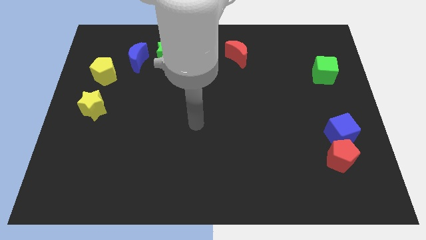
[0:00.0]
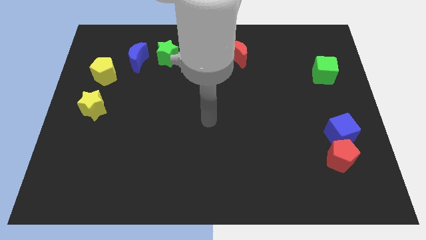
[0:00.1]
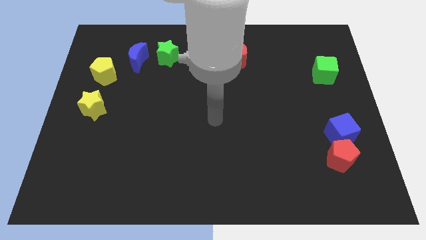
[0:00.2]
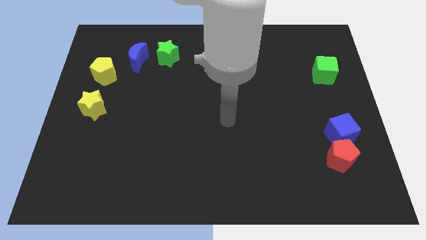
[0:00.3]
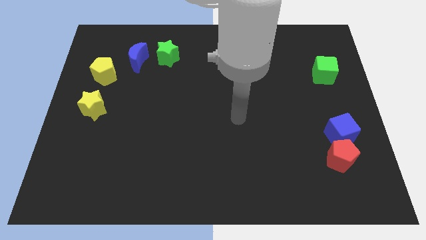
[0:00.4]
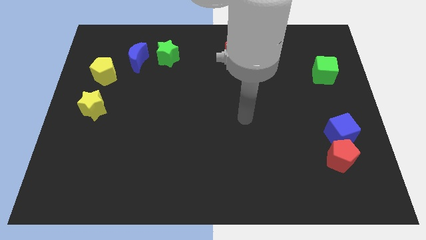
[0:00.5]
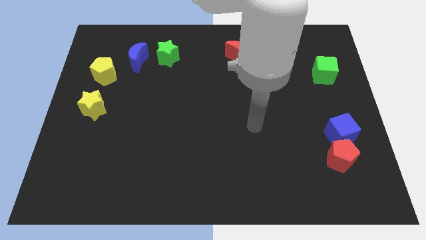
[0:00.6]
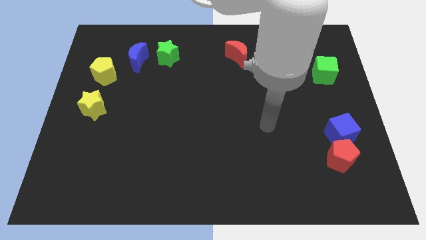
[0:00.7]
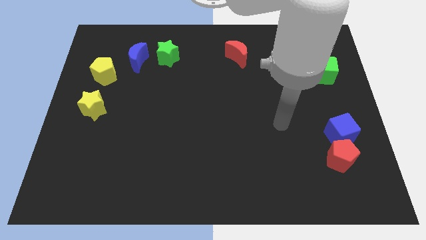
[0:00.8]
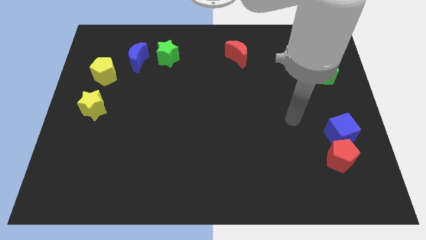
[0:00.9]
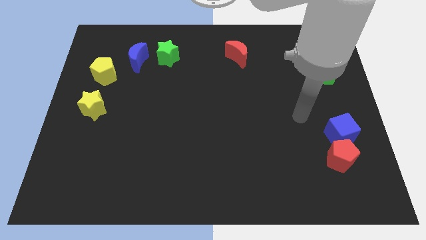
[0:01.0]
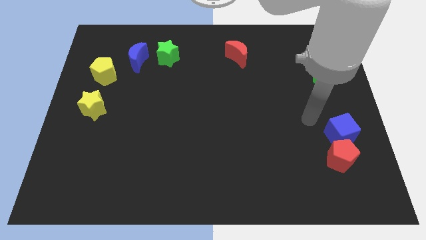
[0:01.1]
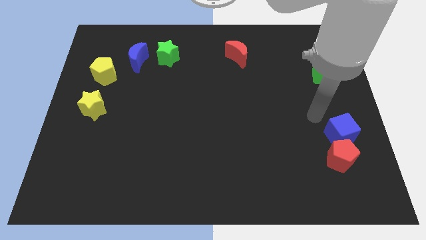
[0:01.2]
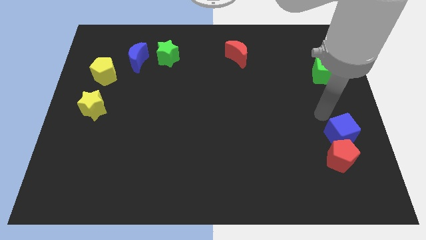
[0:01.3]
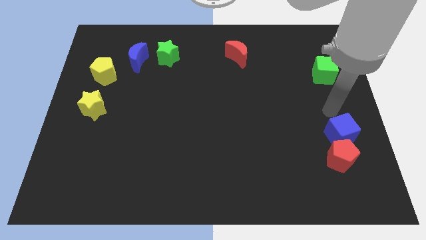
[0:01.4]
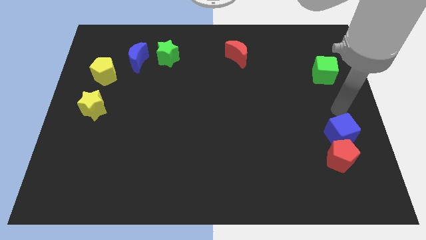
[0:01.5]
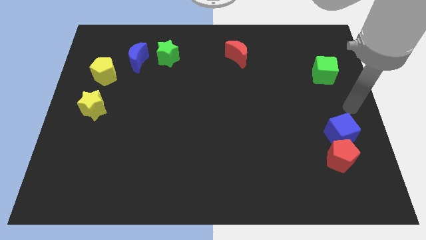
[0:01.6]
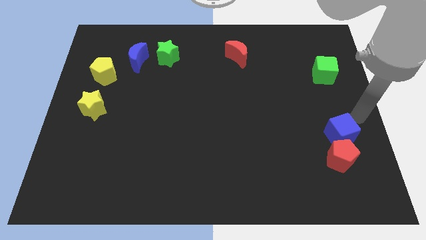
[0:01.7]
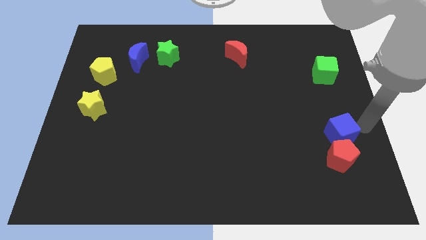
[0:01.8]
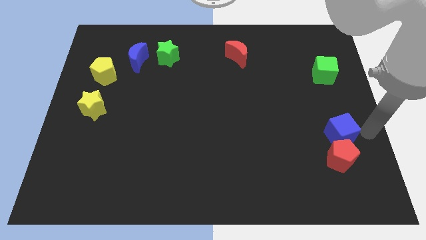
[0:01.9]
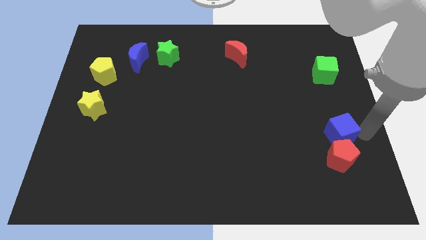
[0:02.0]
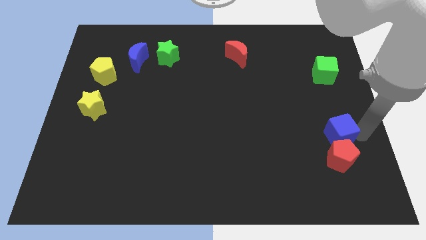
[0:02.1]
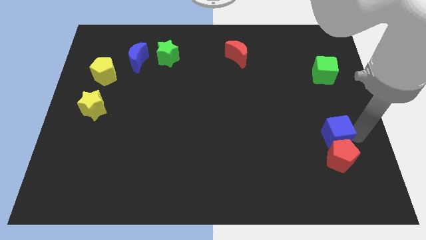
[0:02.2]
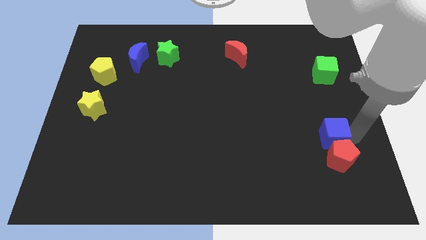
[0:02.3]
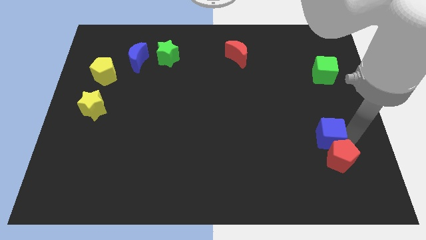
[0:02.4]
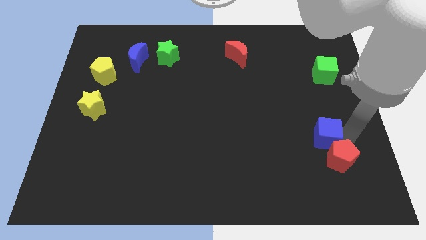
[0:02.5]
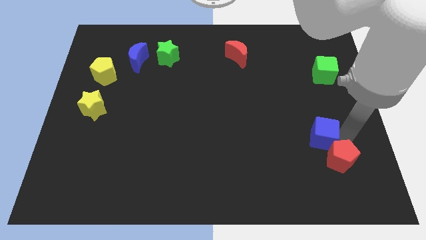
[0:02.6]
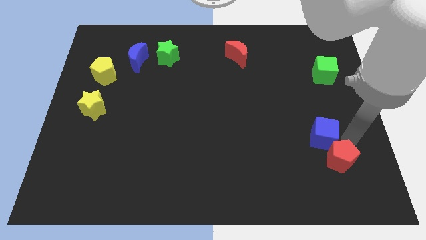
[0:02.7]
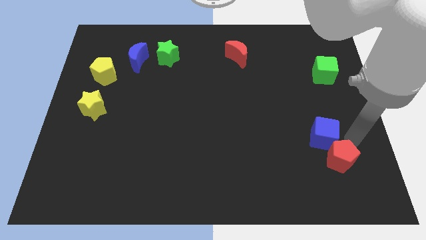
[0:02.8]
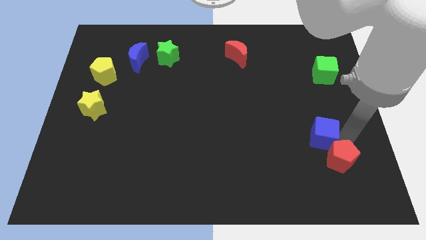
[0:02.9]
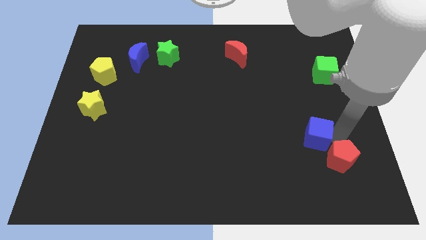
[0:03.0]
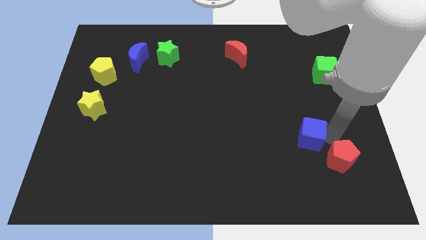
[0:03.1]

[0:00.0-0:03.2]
push the blue cube slightly left

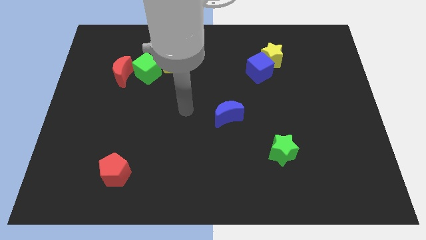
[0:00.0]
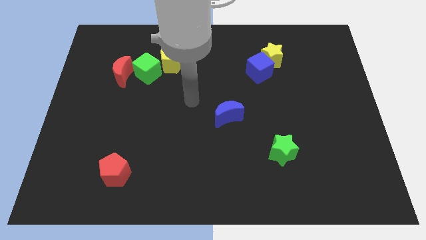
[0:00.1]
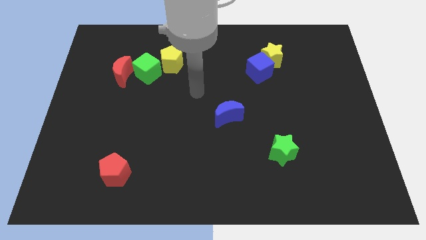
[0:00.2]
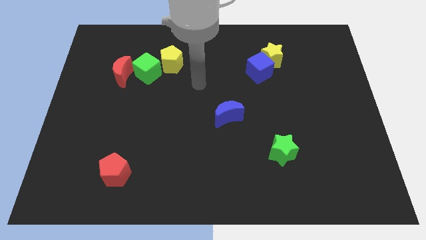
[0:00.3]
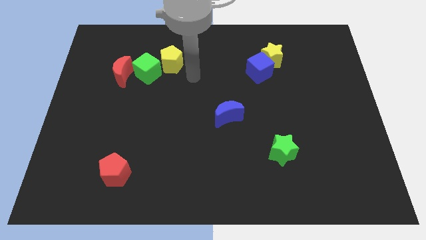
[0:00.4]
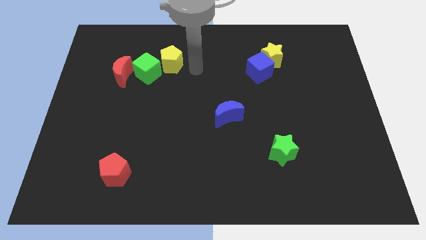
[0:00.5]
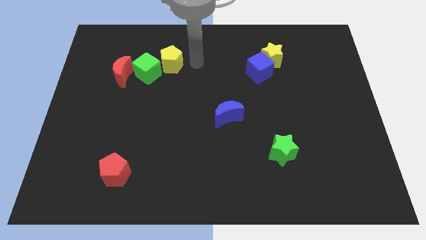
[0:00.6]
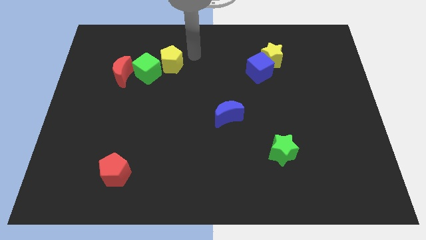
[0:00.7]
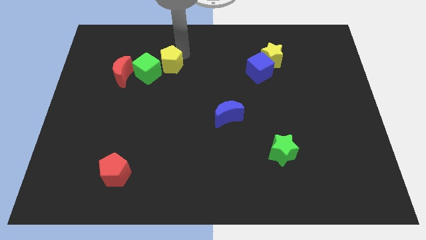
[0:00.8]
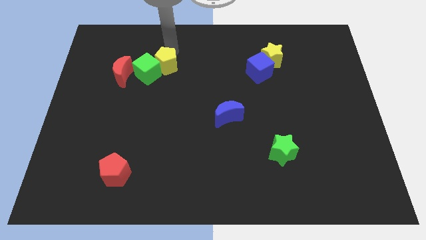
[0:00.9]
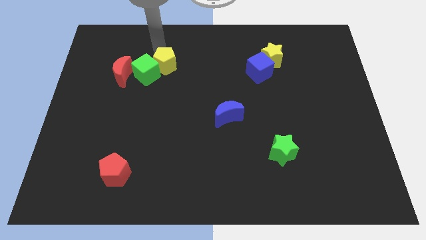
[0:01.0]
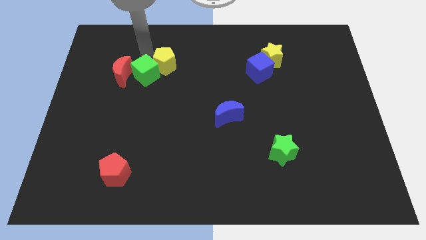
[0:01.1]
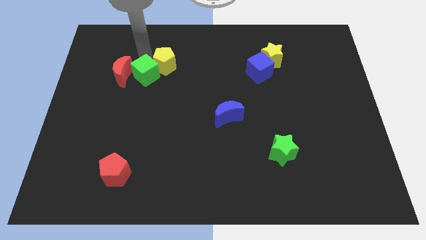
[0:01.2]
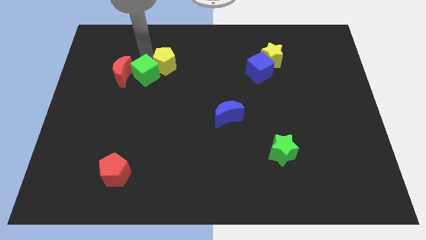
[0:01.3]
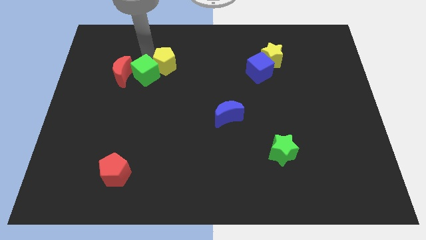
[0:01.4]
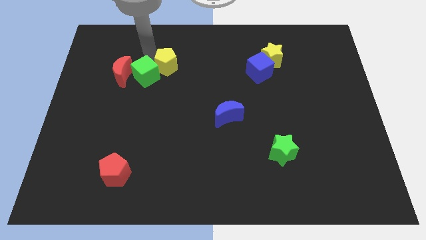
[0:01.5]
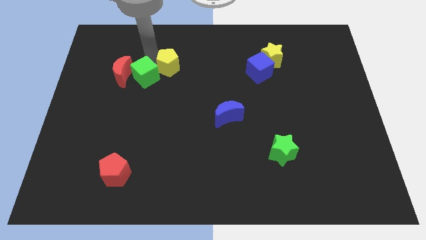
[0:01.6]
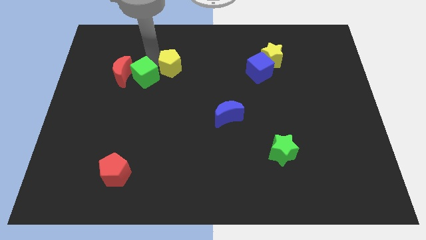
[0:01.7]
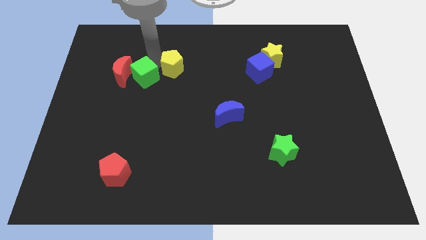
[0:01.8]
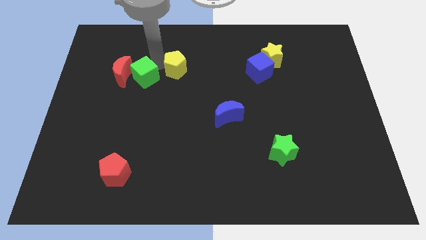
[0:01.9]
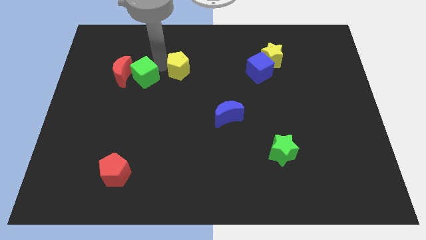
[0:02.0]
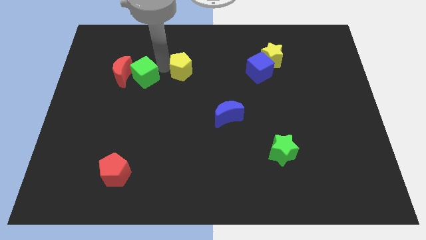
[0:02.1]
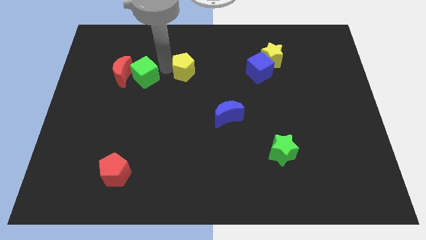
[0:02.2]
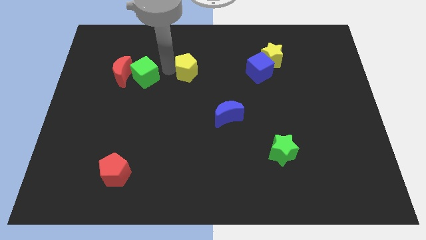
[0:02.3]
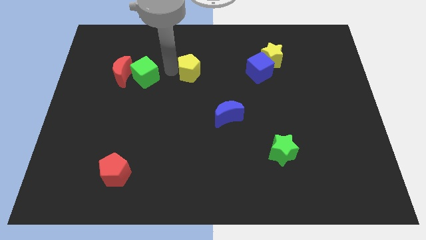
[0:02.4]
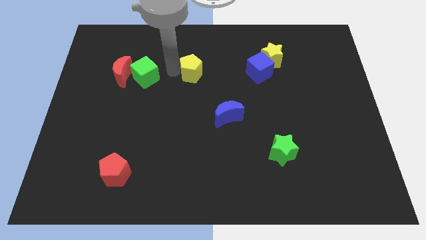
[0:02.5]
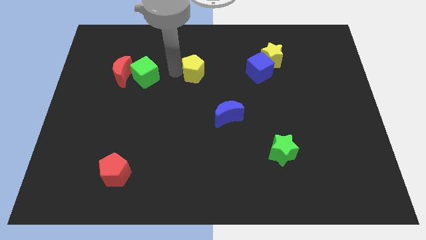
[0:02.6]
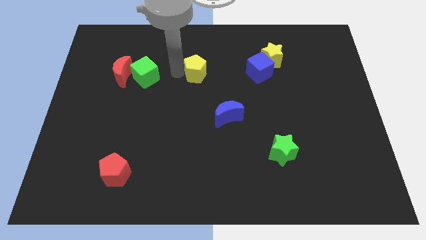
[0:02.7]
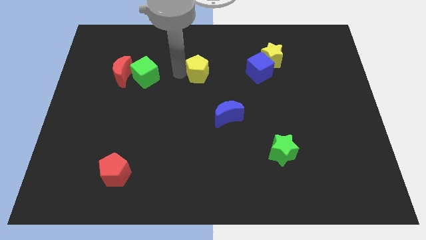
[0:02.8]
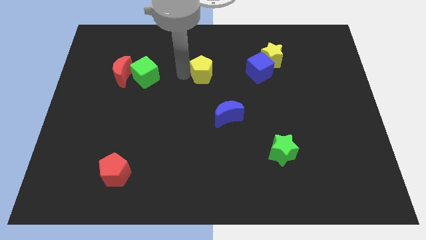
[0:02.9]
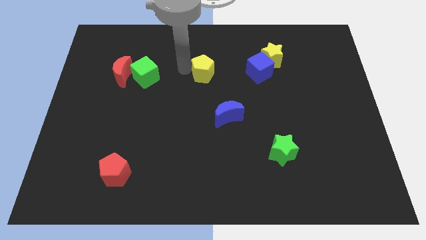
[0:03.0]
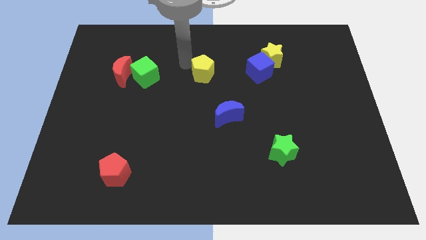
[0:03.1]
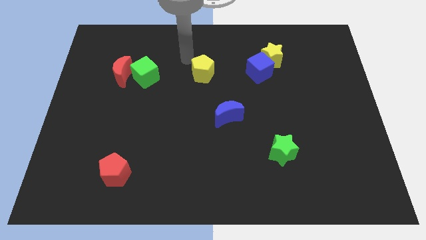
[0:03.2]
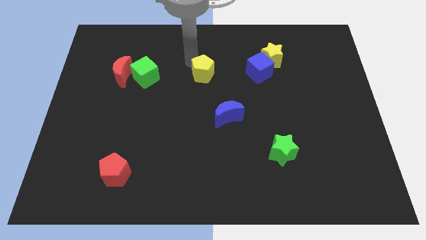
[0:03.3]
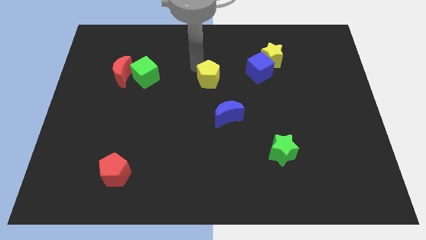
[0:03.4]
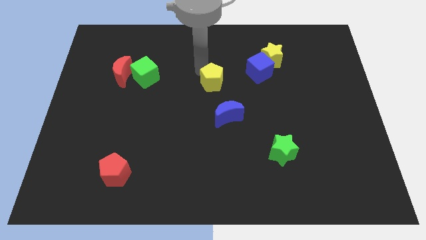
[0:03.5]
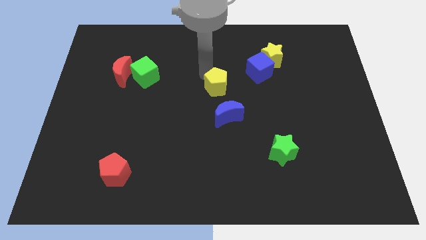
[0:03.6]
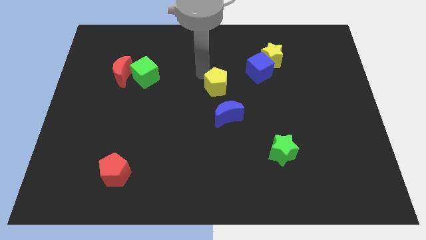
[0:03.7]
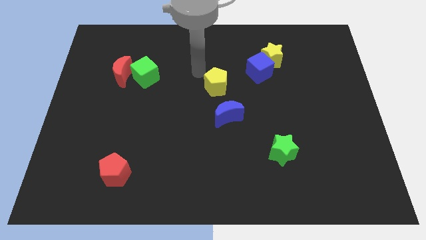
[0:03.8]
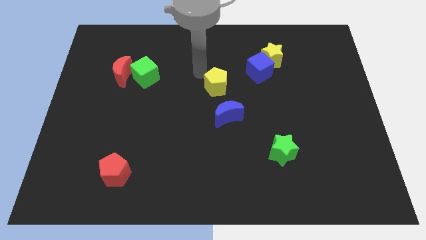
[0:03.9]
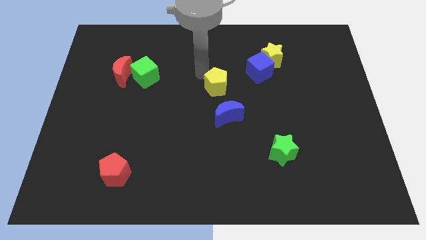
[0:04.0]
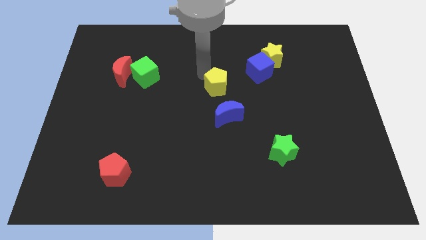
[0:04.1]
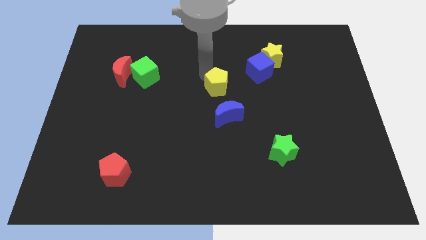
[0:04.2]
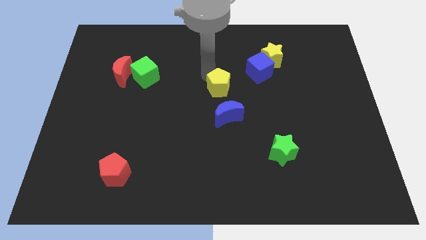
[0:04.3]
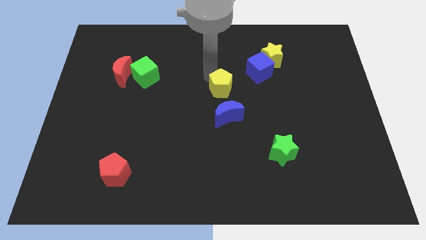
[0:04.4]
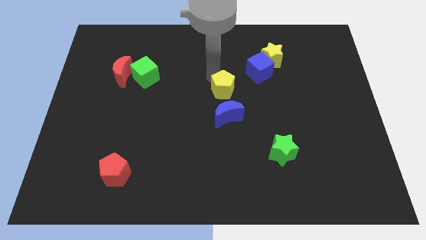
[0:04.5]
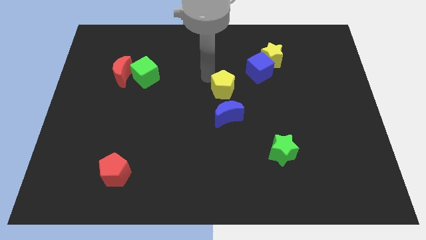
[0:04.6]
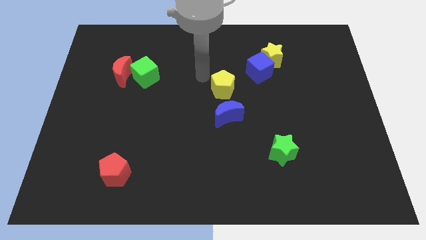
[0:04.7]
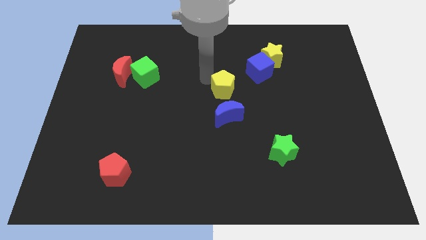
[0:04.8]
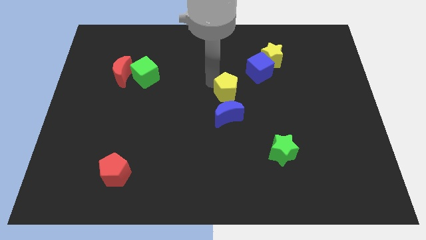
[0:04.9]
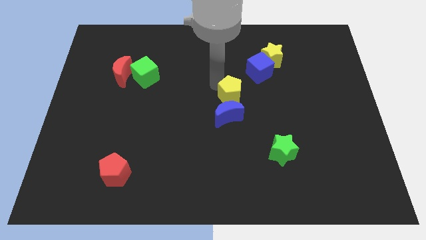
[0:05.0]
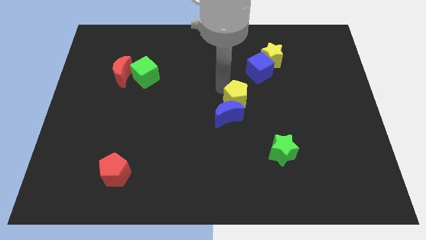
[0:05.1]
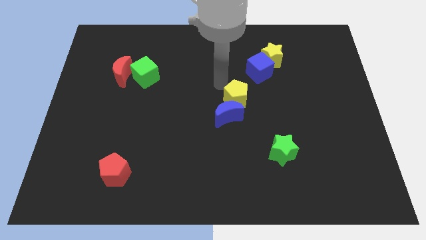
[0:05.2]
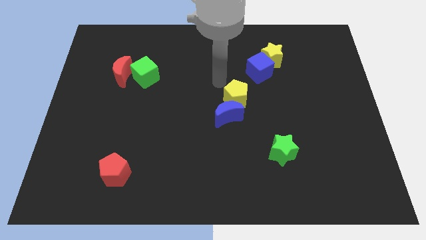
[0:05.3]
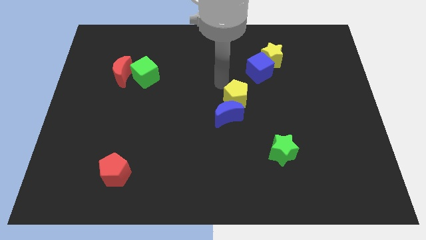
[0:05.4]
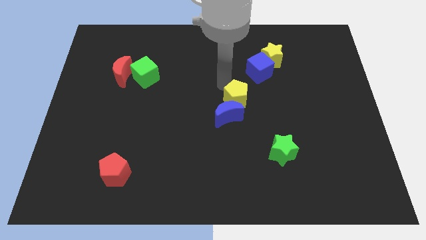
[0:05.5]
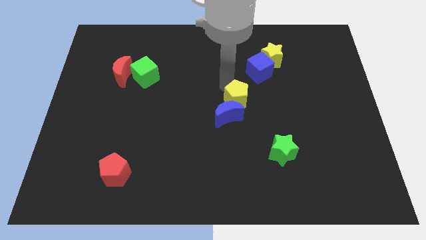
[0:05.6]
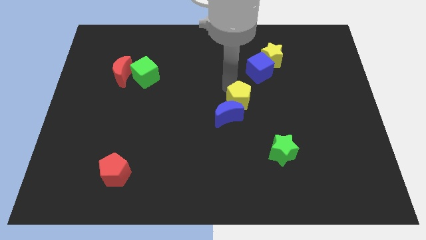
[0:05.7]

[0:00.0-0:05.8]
slide the yellow pentagon downwards and then to the right
